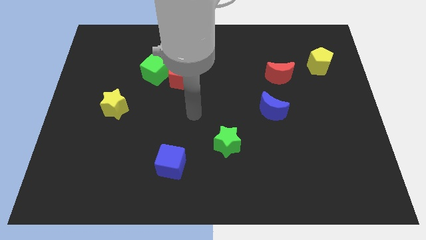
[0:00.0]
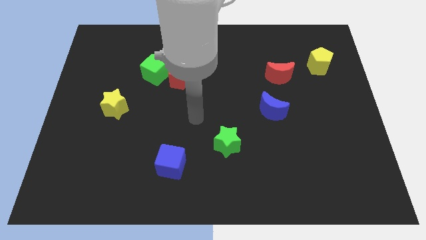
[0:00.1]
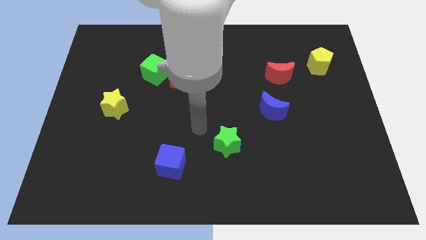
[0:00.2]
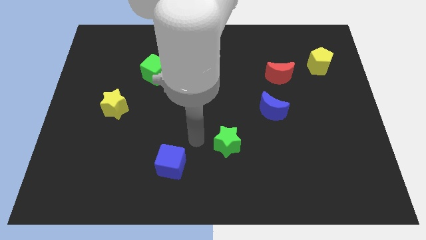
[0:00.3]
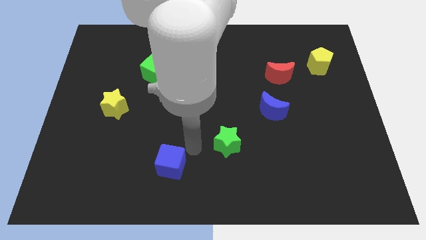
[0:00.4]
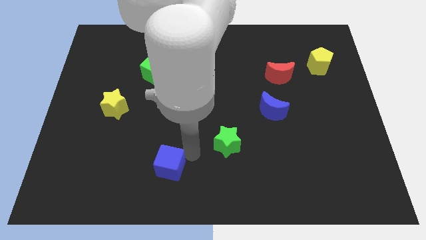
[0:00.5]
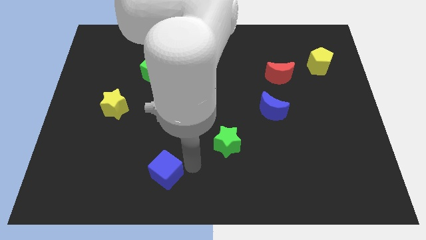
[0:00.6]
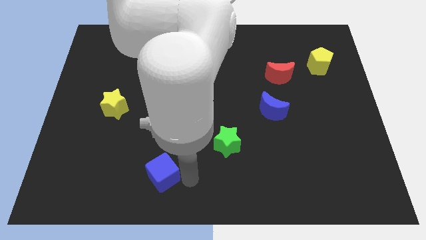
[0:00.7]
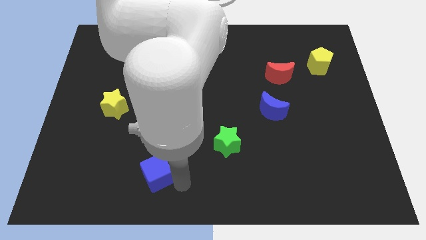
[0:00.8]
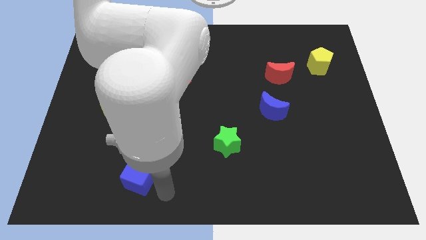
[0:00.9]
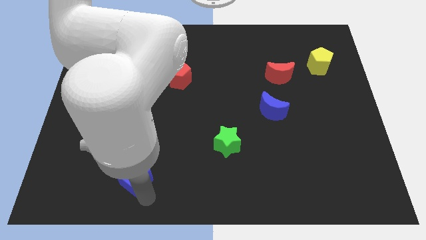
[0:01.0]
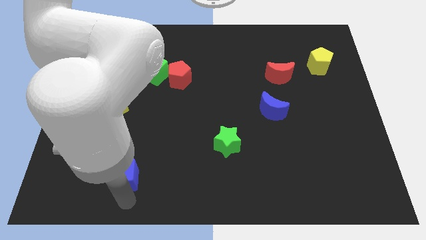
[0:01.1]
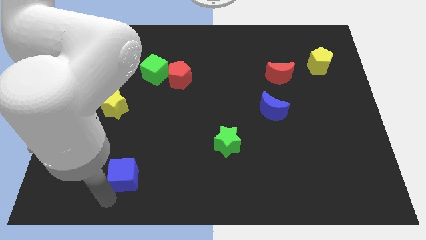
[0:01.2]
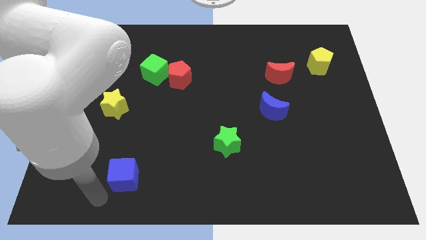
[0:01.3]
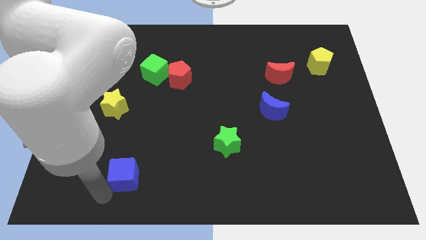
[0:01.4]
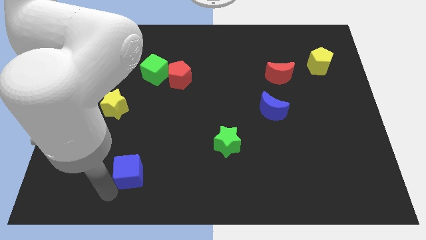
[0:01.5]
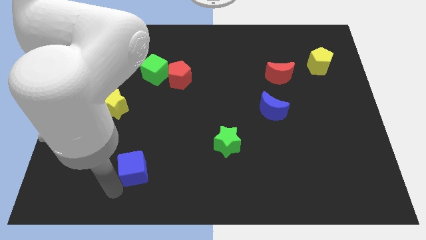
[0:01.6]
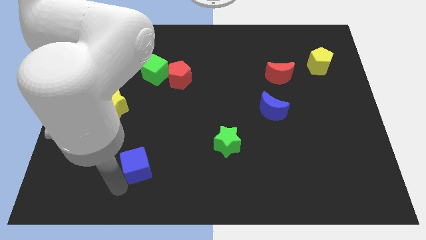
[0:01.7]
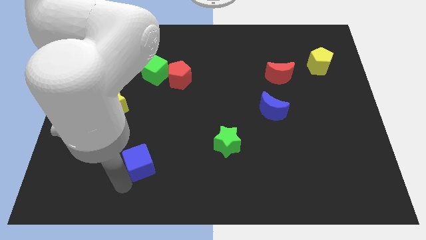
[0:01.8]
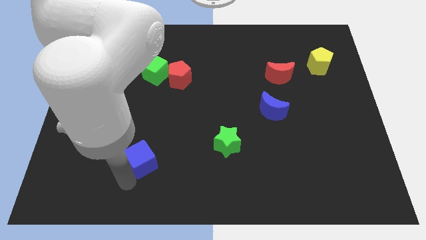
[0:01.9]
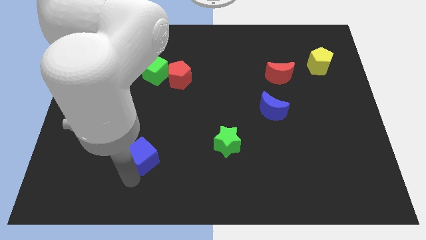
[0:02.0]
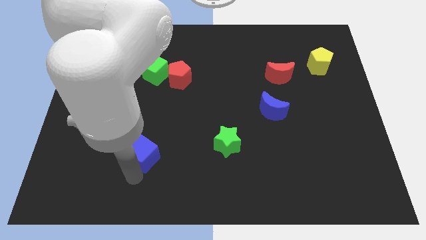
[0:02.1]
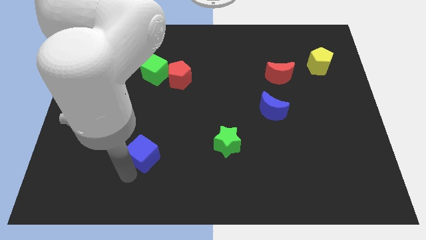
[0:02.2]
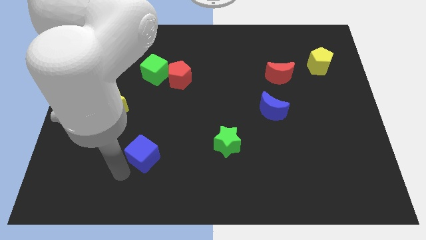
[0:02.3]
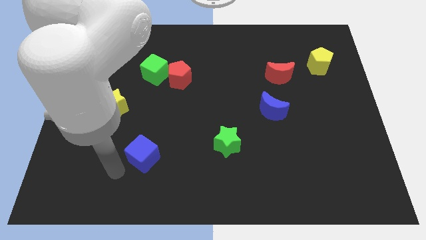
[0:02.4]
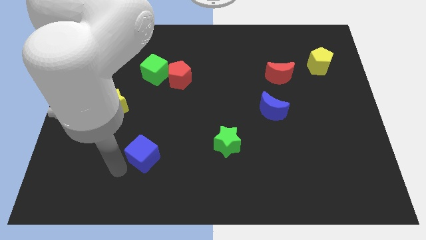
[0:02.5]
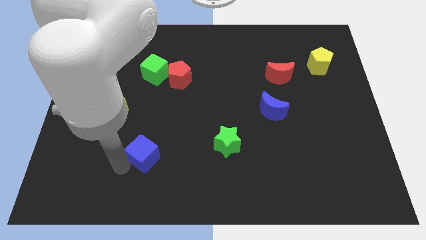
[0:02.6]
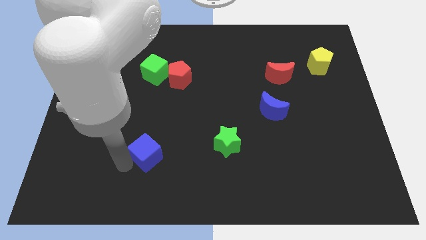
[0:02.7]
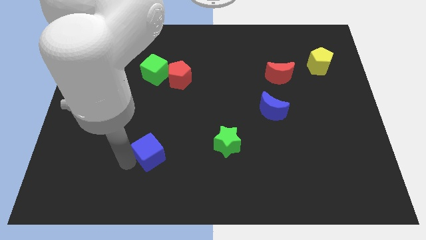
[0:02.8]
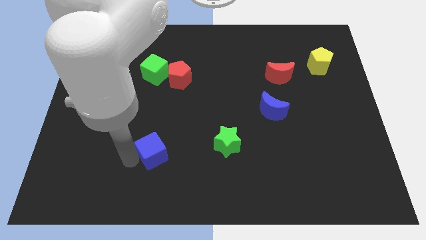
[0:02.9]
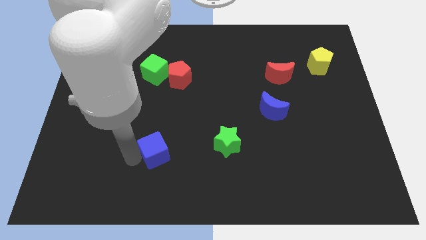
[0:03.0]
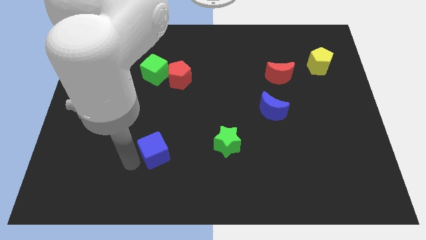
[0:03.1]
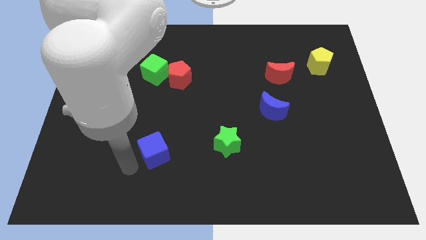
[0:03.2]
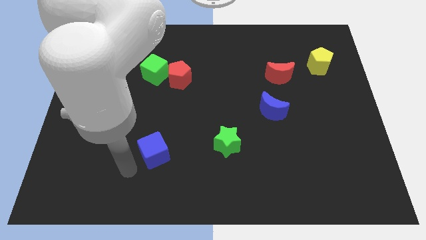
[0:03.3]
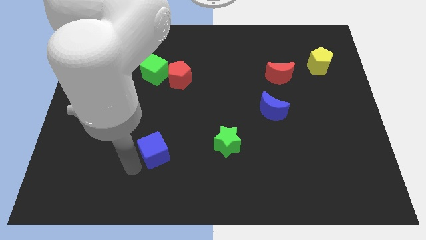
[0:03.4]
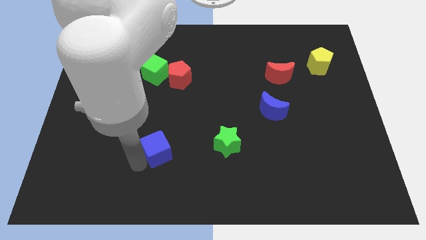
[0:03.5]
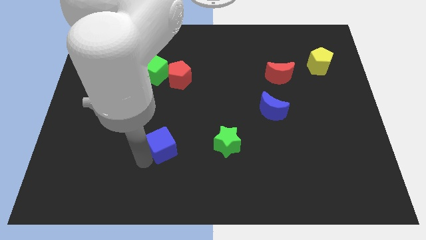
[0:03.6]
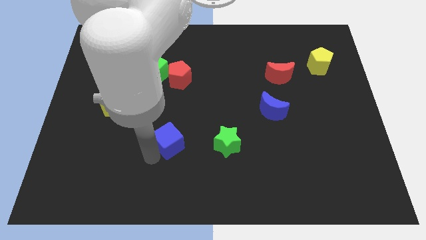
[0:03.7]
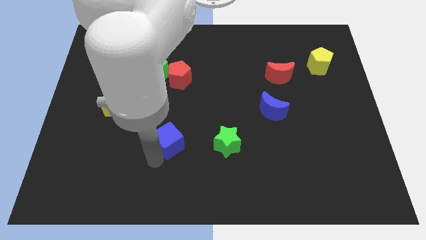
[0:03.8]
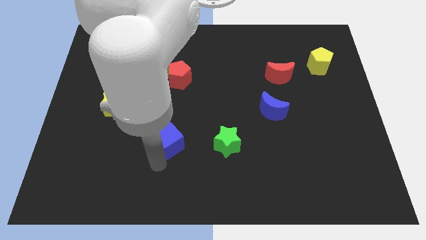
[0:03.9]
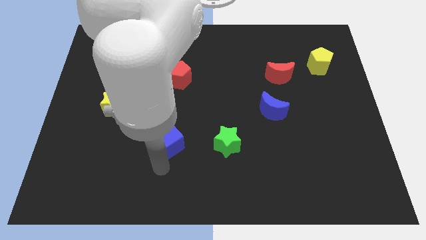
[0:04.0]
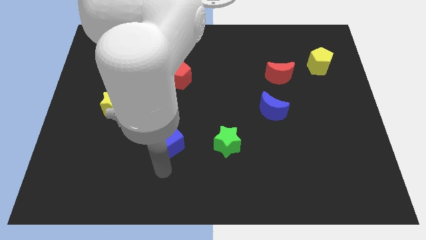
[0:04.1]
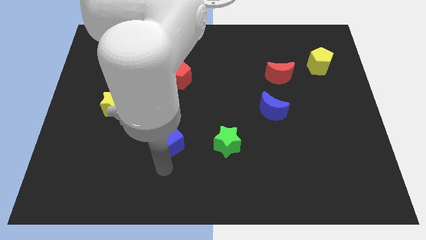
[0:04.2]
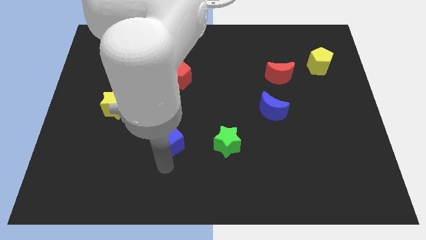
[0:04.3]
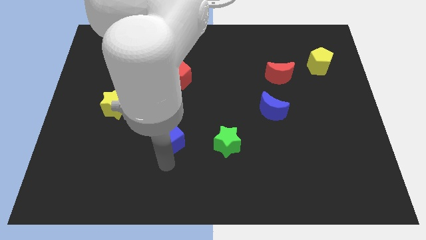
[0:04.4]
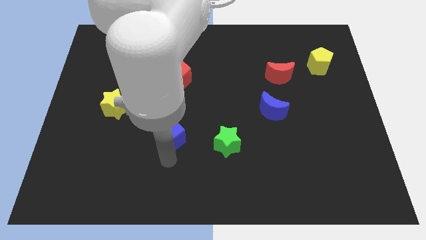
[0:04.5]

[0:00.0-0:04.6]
slightly move the blue cube upwards

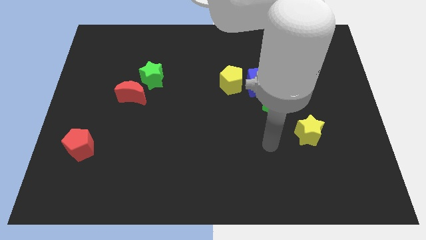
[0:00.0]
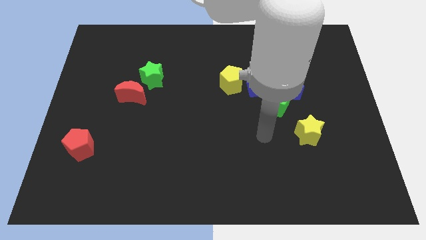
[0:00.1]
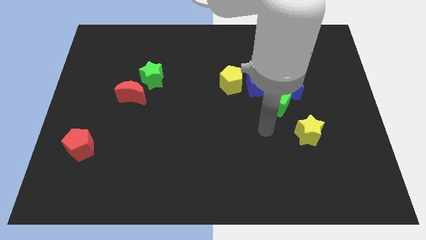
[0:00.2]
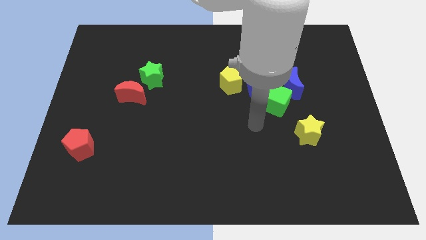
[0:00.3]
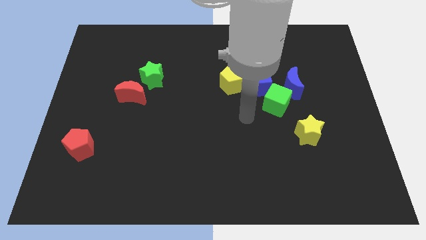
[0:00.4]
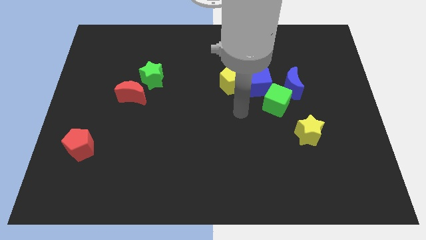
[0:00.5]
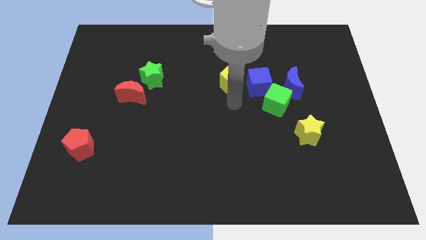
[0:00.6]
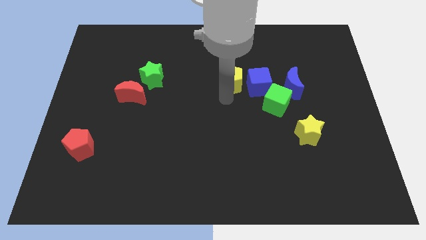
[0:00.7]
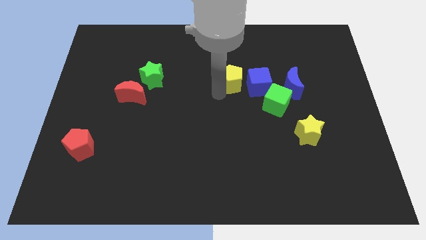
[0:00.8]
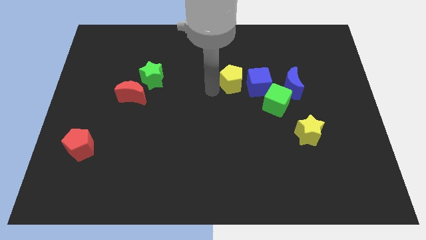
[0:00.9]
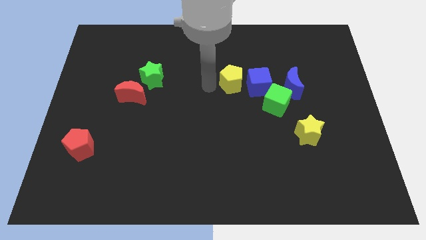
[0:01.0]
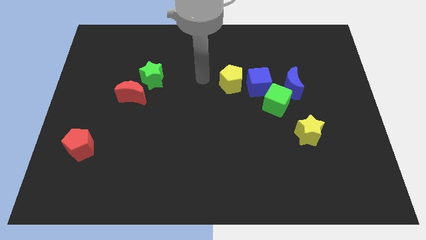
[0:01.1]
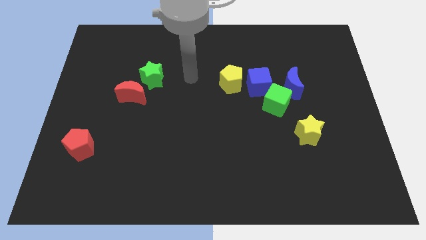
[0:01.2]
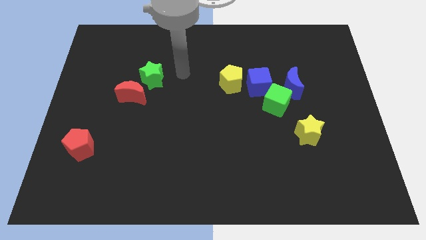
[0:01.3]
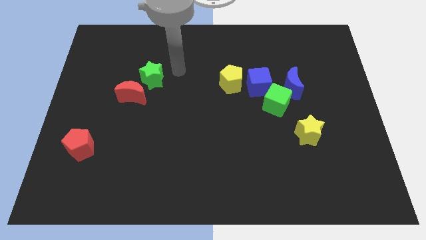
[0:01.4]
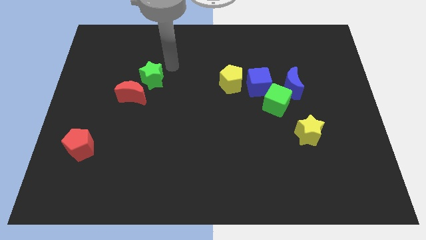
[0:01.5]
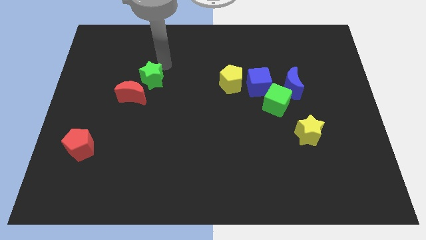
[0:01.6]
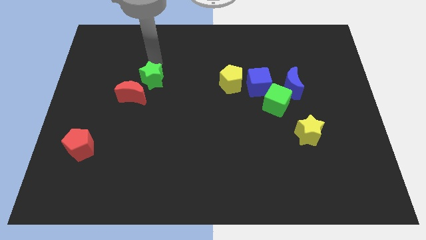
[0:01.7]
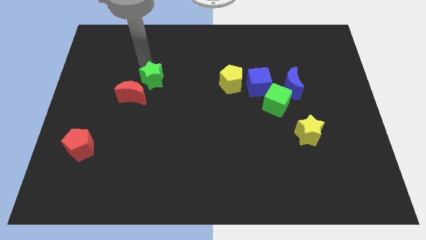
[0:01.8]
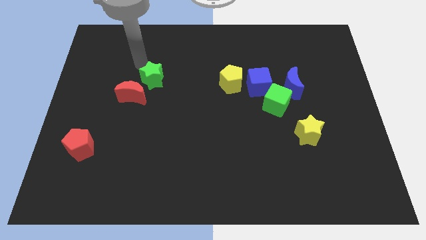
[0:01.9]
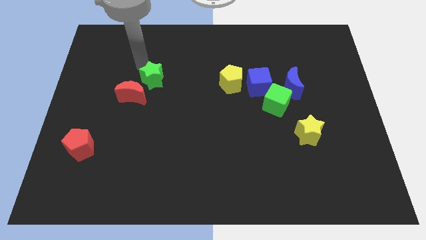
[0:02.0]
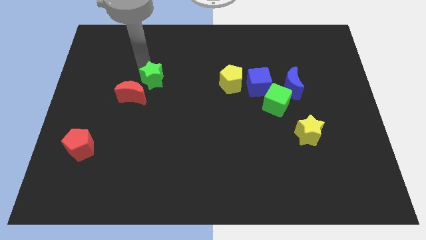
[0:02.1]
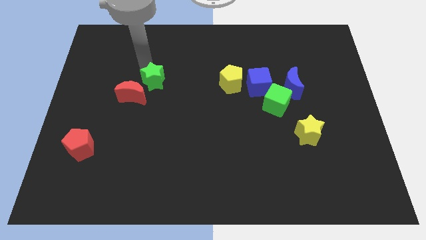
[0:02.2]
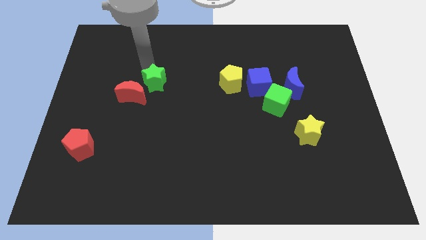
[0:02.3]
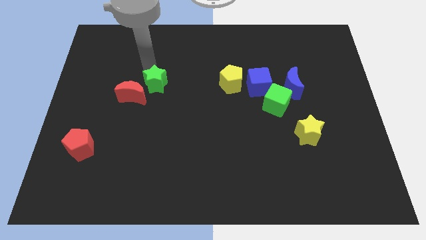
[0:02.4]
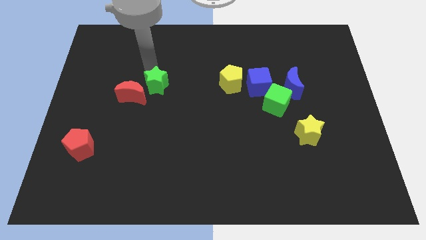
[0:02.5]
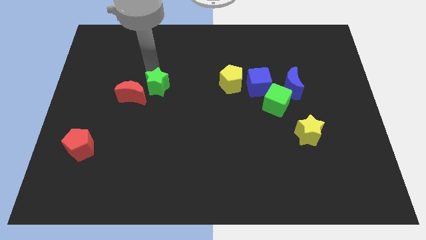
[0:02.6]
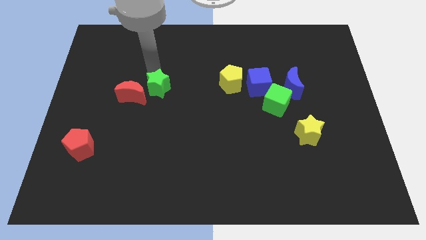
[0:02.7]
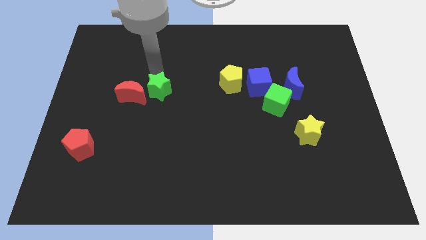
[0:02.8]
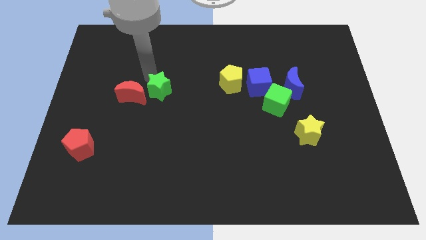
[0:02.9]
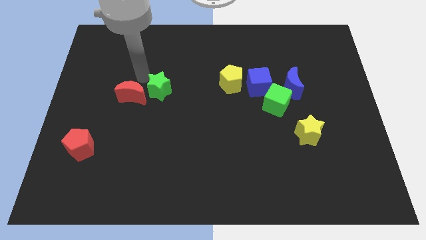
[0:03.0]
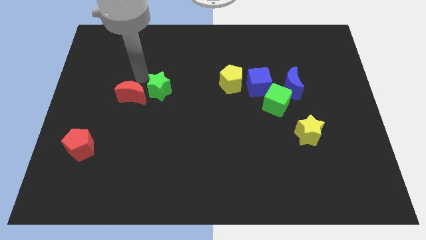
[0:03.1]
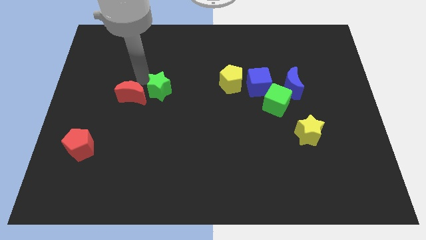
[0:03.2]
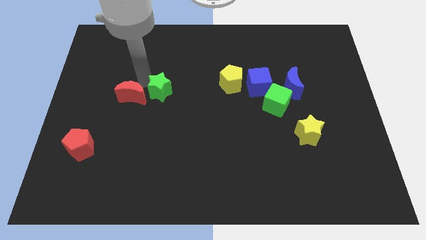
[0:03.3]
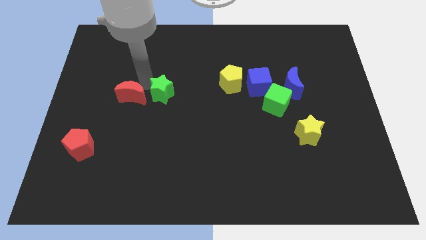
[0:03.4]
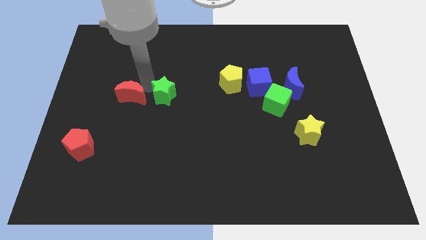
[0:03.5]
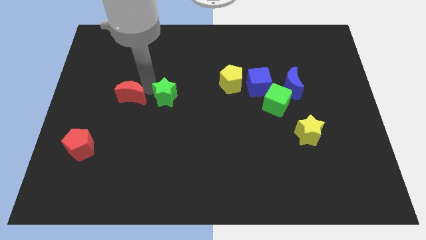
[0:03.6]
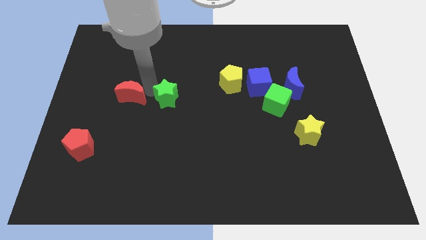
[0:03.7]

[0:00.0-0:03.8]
push the green star a little diagonally downwards and right
